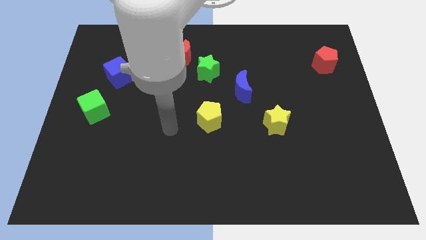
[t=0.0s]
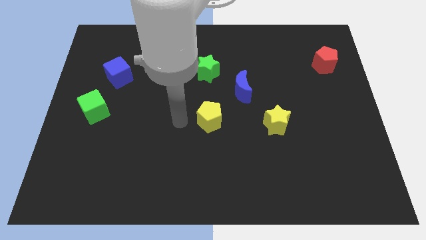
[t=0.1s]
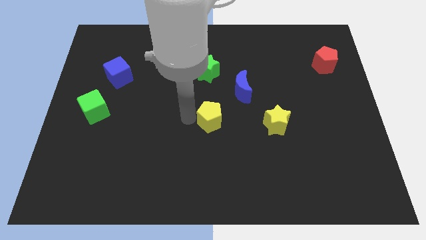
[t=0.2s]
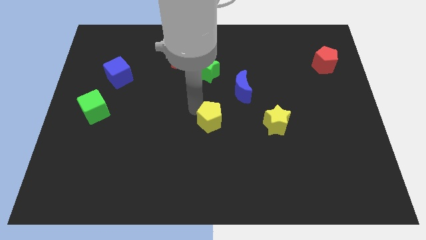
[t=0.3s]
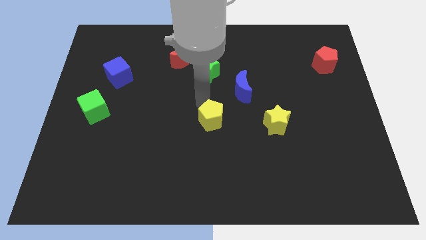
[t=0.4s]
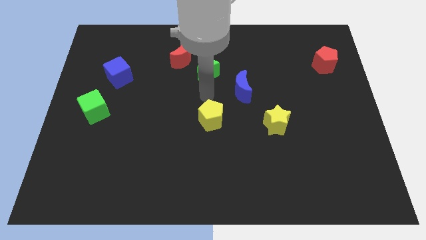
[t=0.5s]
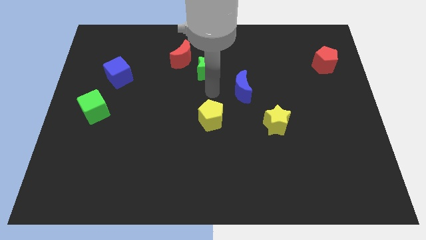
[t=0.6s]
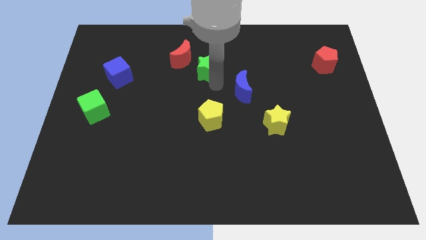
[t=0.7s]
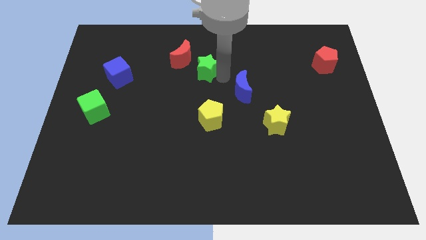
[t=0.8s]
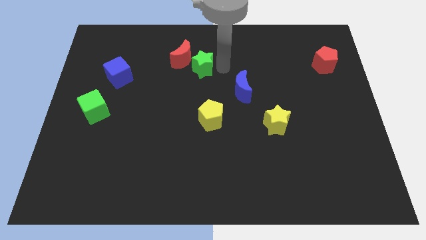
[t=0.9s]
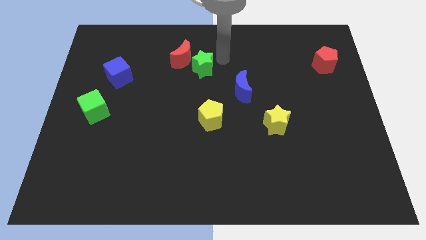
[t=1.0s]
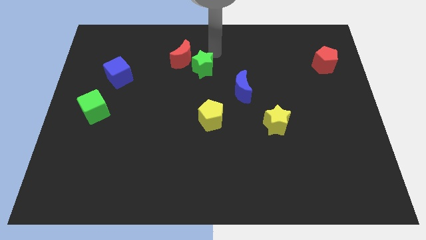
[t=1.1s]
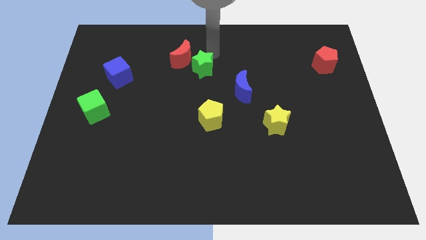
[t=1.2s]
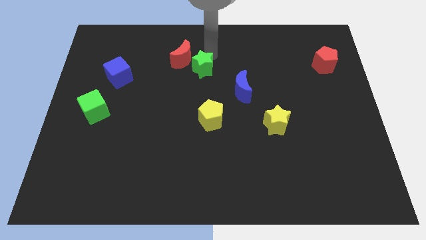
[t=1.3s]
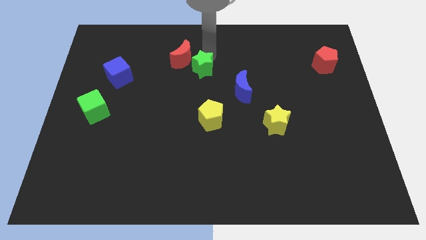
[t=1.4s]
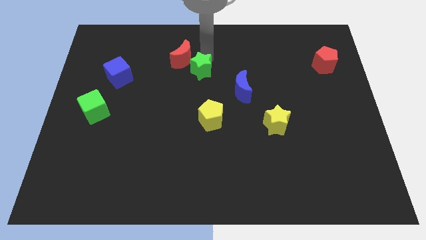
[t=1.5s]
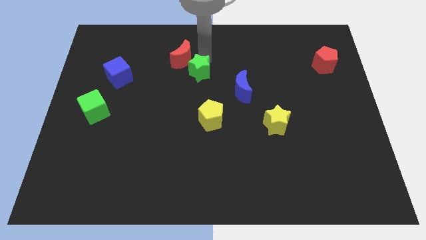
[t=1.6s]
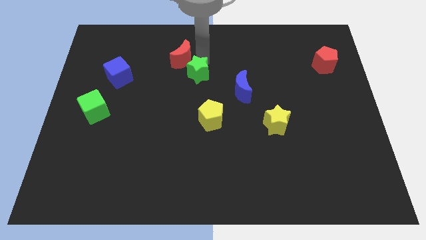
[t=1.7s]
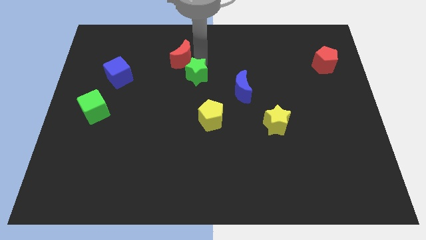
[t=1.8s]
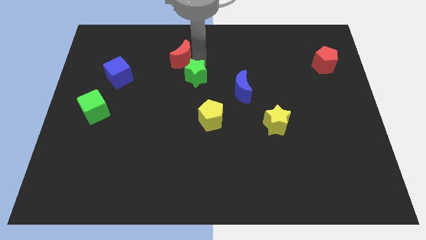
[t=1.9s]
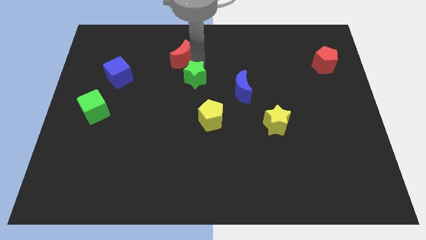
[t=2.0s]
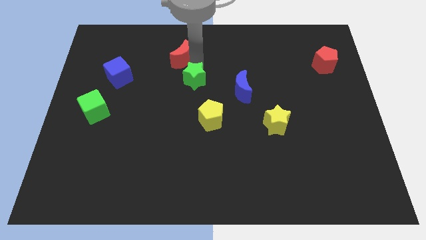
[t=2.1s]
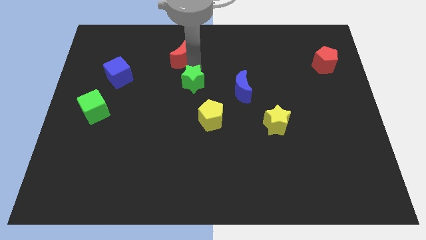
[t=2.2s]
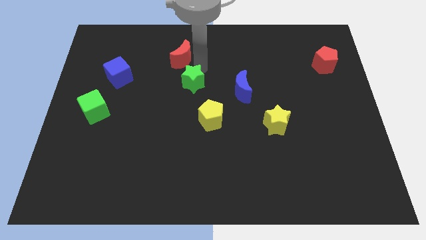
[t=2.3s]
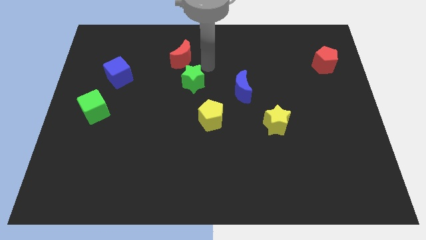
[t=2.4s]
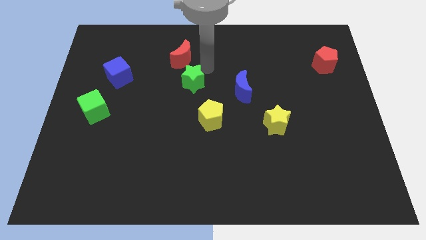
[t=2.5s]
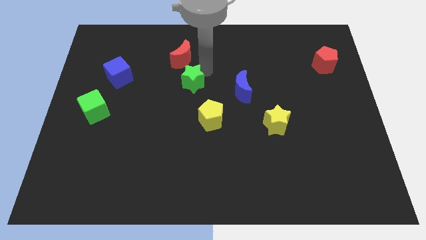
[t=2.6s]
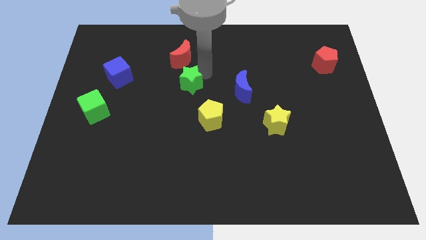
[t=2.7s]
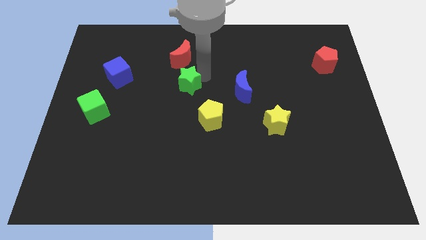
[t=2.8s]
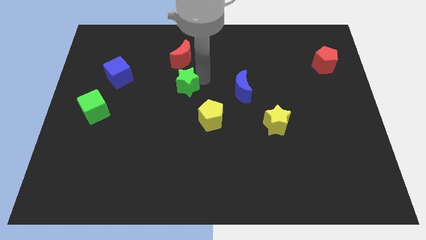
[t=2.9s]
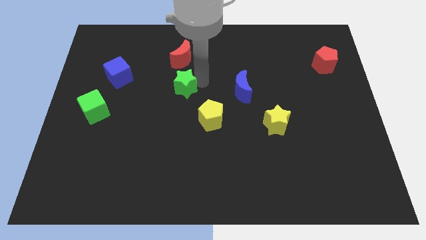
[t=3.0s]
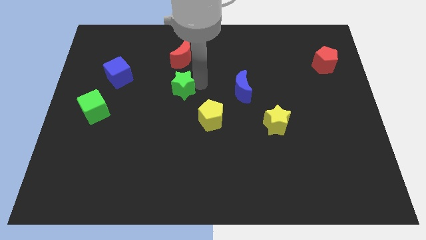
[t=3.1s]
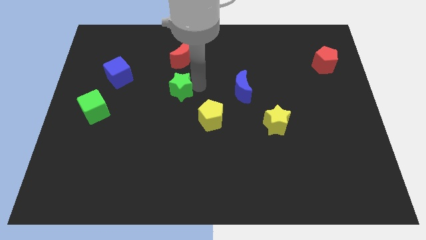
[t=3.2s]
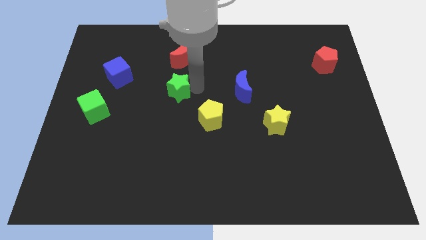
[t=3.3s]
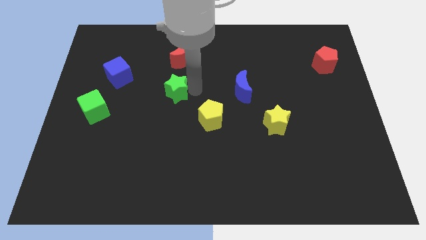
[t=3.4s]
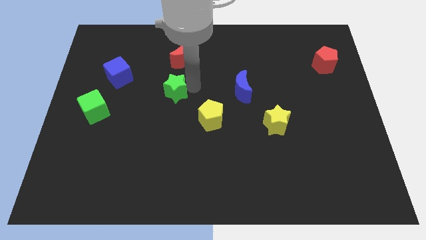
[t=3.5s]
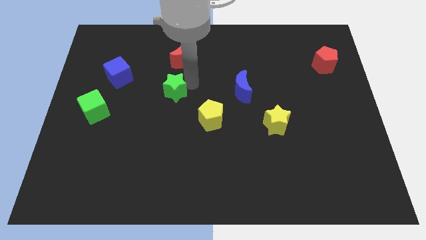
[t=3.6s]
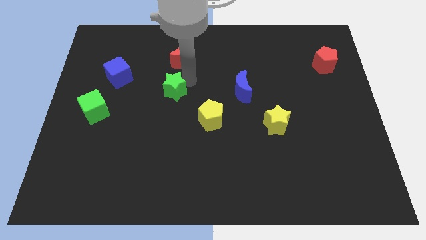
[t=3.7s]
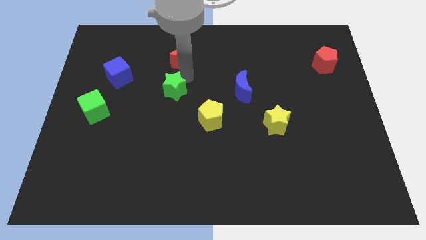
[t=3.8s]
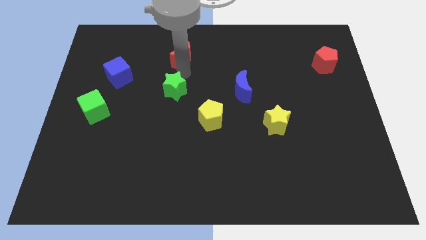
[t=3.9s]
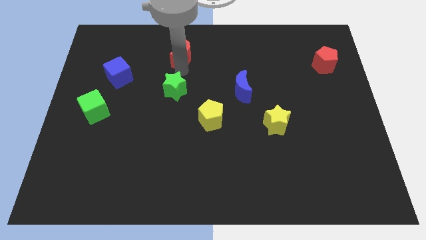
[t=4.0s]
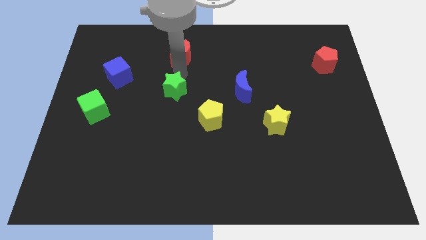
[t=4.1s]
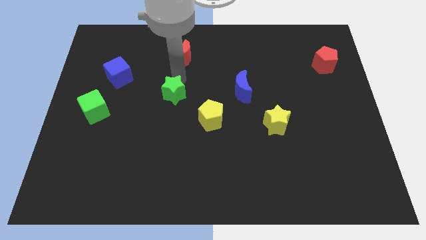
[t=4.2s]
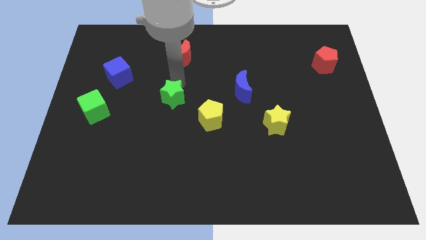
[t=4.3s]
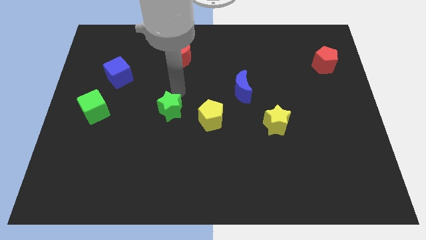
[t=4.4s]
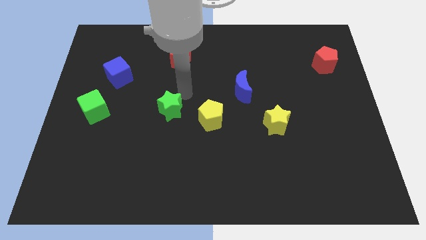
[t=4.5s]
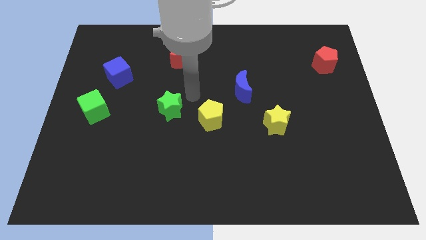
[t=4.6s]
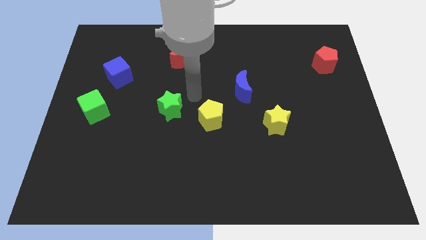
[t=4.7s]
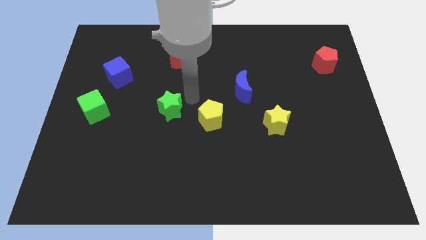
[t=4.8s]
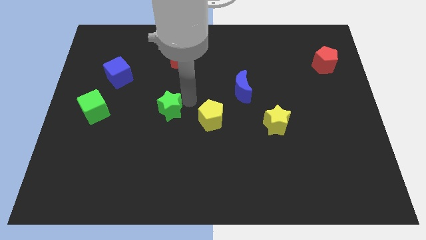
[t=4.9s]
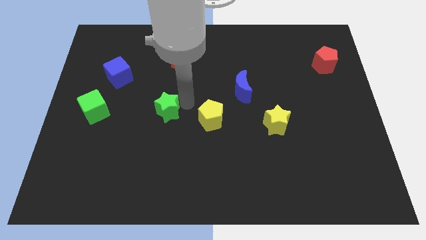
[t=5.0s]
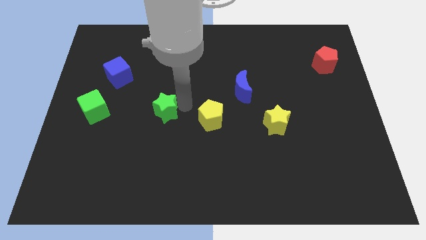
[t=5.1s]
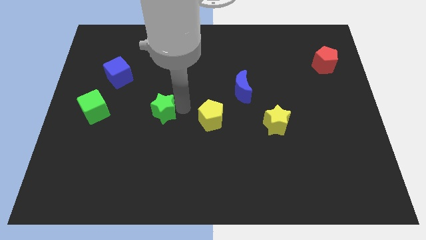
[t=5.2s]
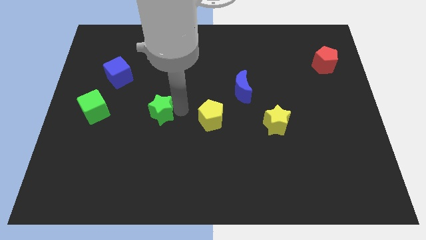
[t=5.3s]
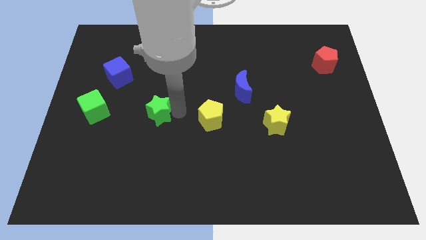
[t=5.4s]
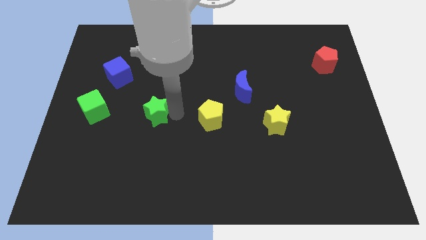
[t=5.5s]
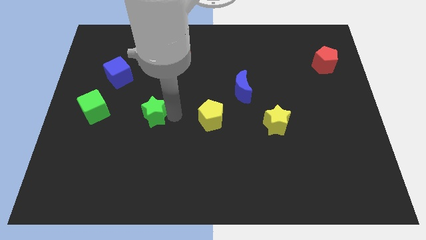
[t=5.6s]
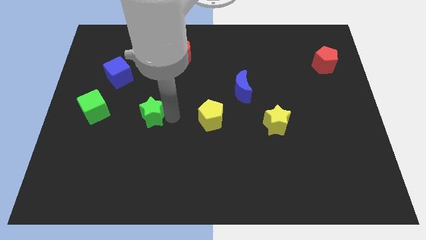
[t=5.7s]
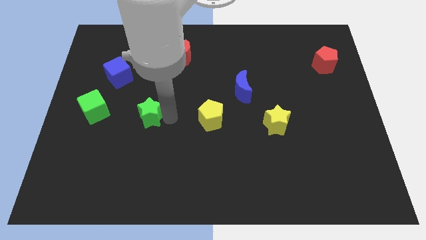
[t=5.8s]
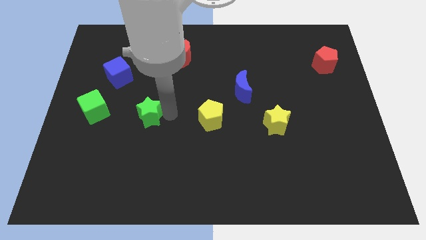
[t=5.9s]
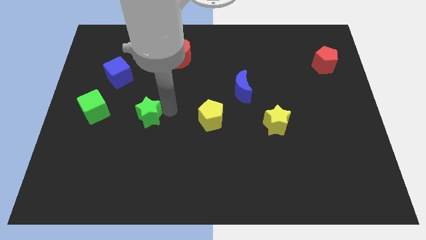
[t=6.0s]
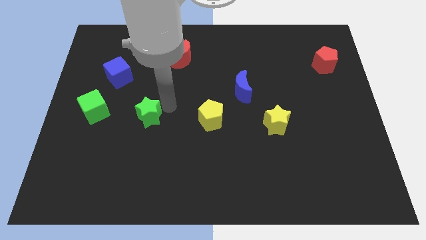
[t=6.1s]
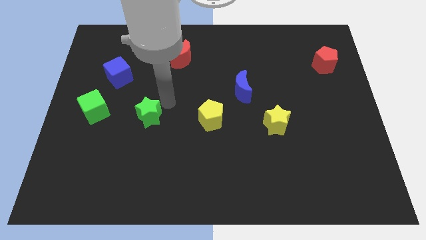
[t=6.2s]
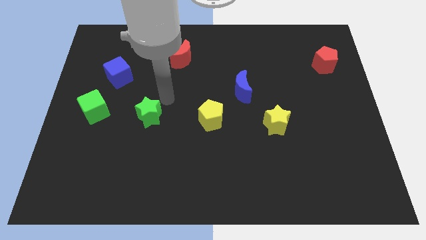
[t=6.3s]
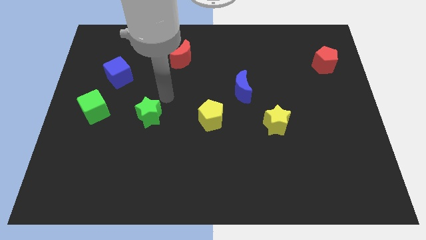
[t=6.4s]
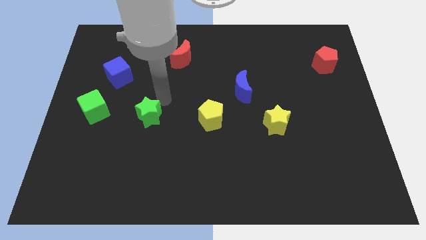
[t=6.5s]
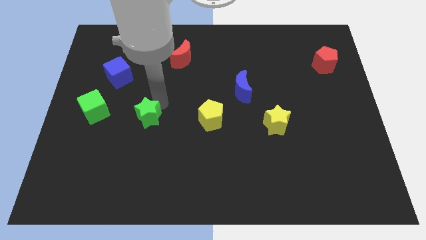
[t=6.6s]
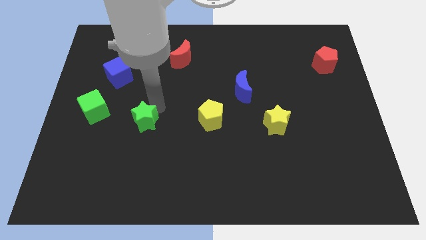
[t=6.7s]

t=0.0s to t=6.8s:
slide the green star downwards and left diagonally

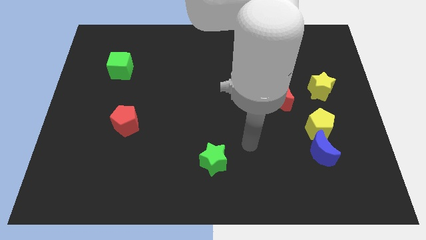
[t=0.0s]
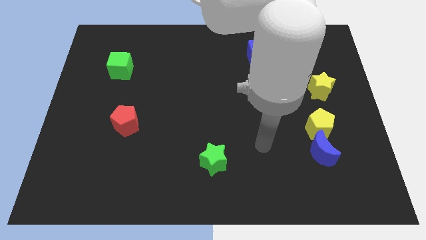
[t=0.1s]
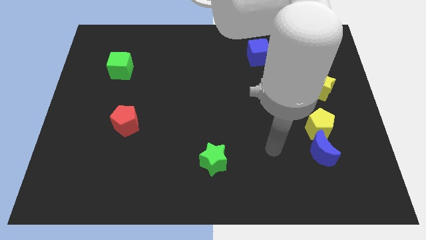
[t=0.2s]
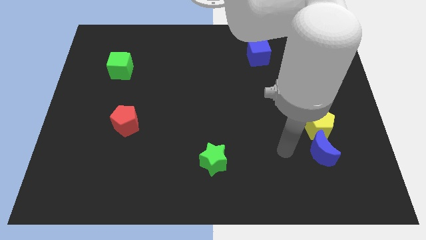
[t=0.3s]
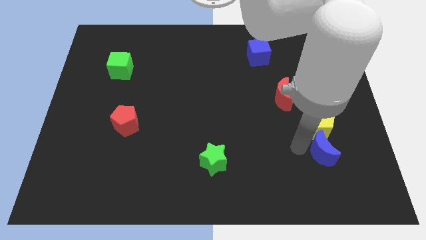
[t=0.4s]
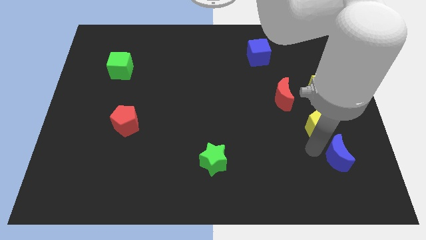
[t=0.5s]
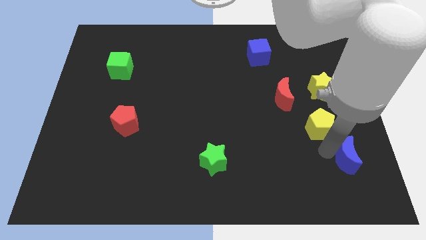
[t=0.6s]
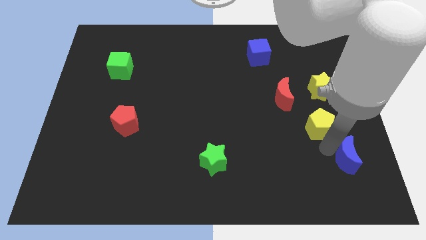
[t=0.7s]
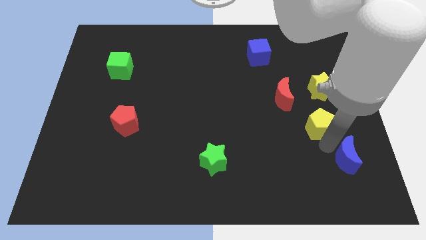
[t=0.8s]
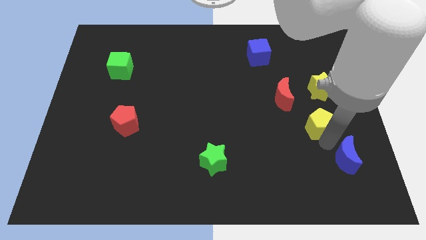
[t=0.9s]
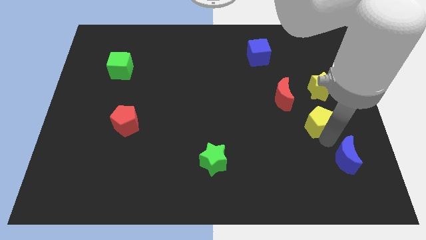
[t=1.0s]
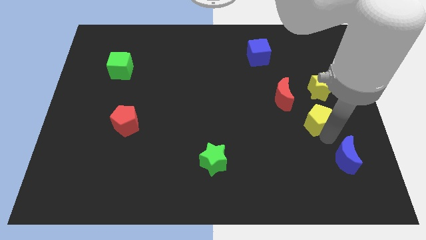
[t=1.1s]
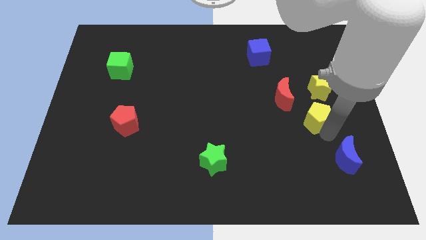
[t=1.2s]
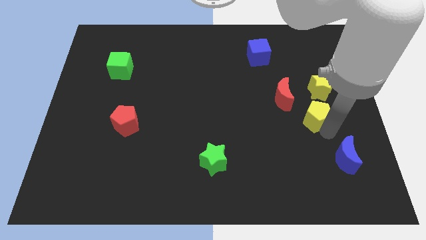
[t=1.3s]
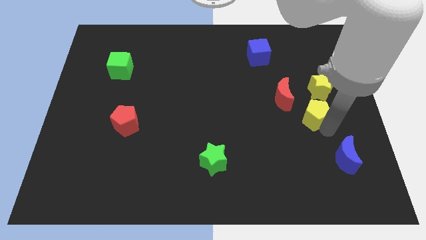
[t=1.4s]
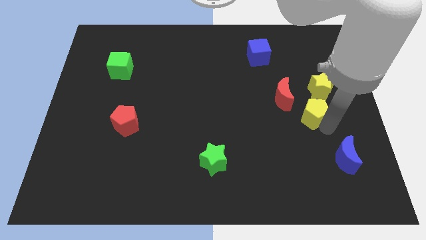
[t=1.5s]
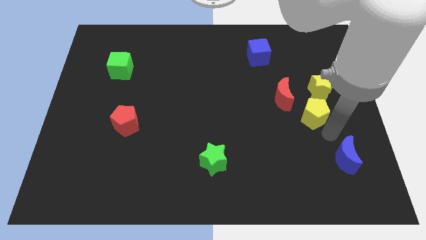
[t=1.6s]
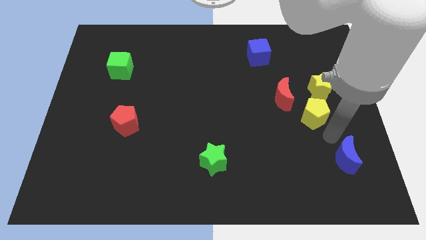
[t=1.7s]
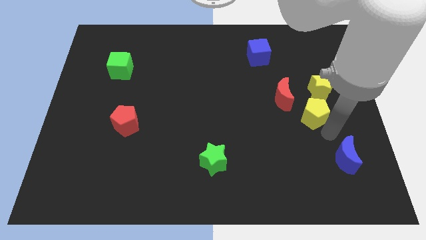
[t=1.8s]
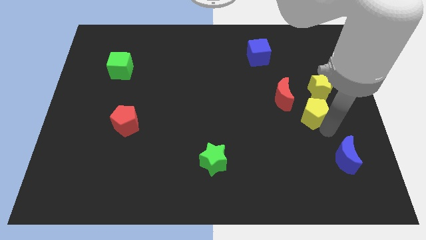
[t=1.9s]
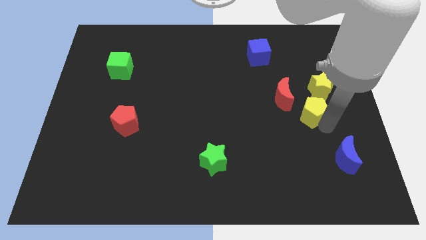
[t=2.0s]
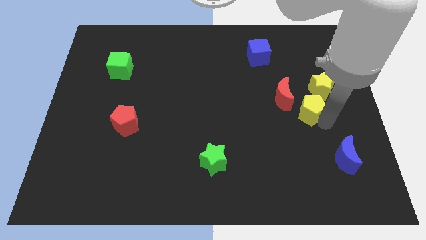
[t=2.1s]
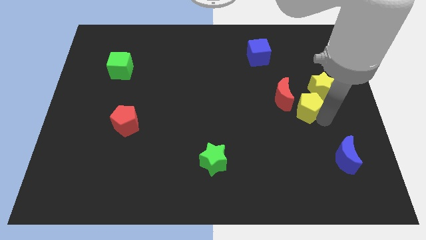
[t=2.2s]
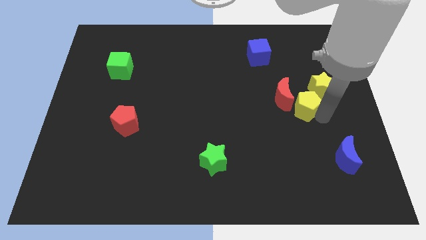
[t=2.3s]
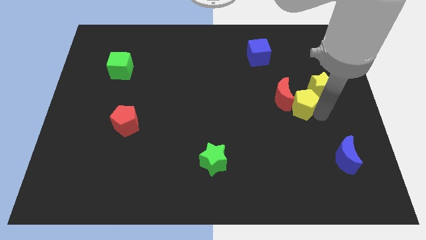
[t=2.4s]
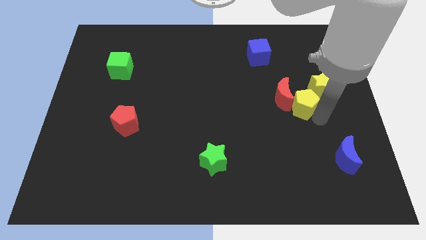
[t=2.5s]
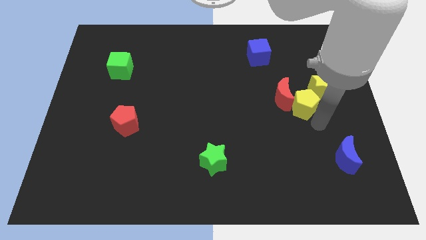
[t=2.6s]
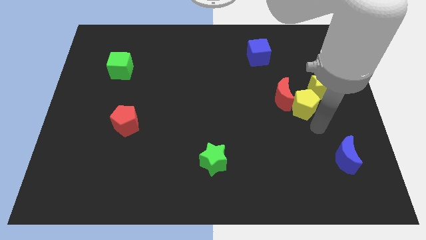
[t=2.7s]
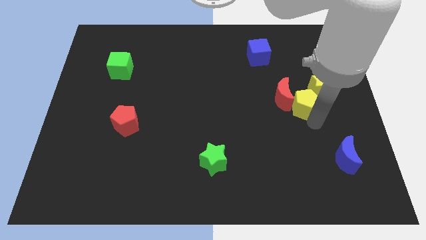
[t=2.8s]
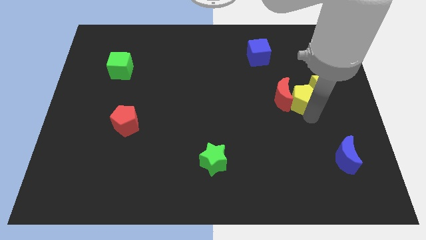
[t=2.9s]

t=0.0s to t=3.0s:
slightly slide the yellow pentagon up
